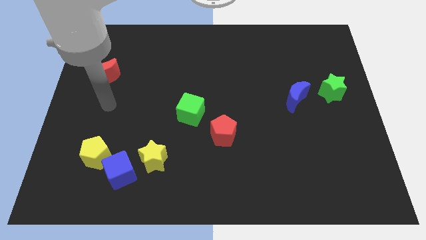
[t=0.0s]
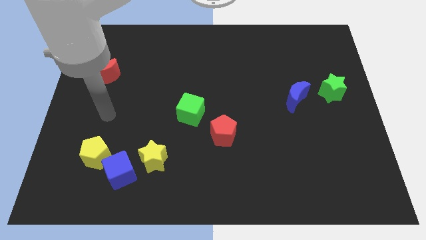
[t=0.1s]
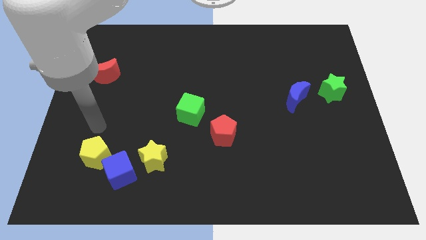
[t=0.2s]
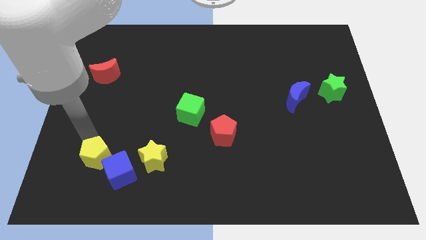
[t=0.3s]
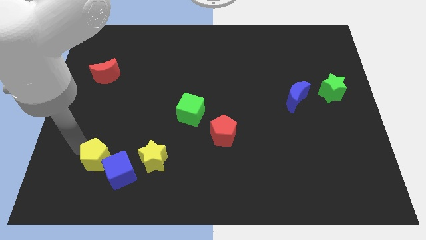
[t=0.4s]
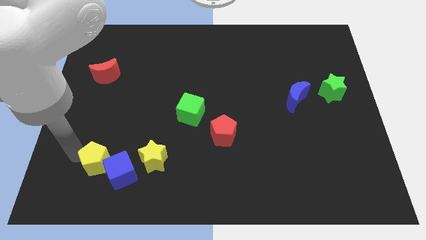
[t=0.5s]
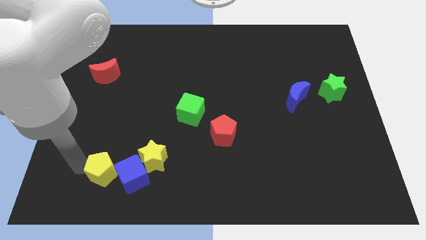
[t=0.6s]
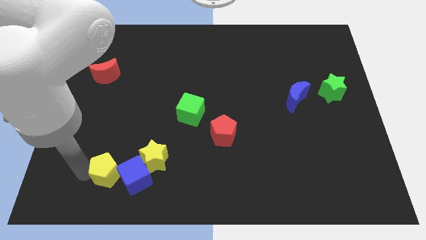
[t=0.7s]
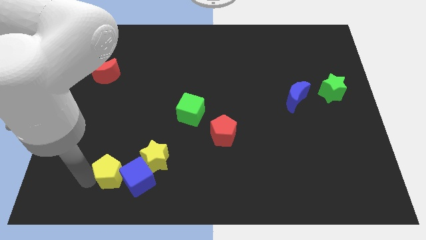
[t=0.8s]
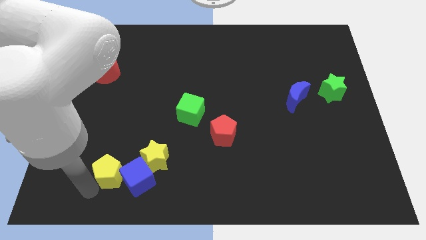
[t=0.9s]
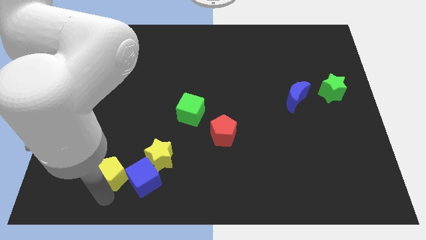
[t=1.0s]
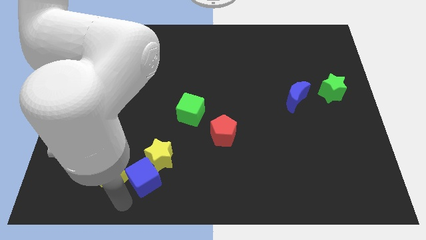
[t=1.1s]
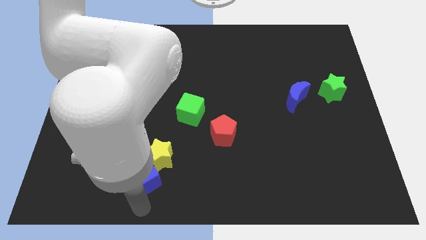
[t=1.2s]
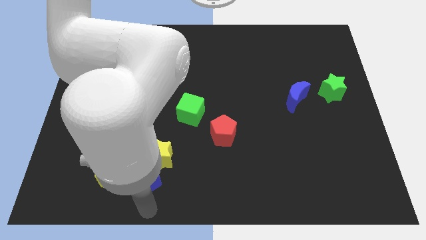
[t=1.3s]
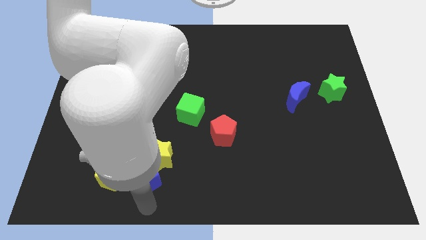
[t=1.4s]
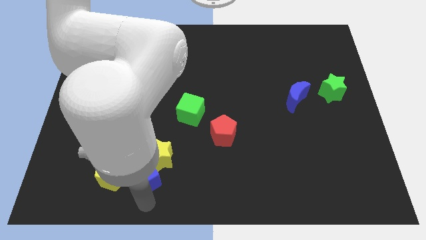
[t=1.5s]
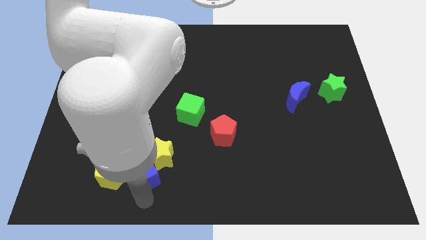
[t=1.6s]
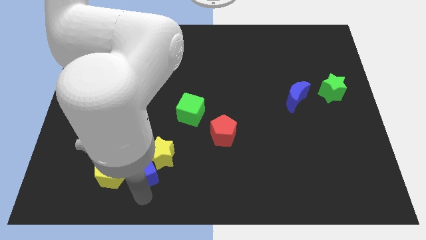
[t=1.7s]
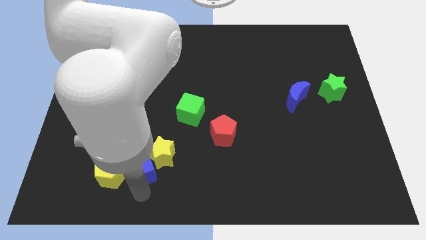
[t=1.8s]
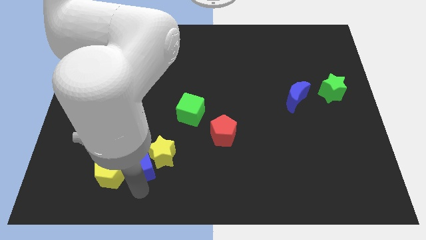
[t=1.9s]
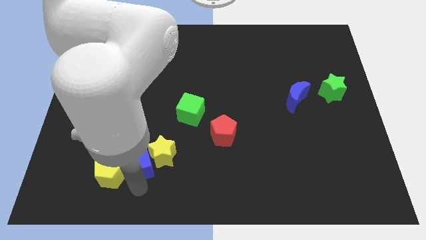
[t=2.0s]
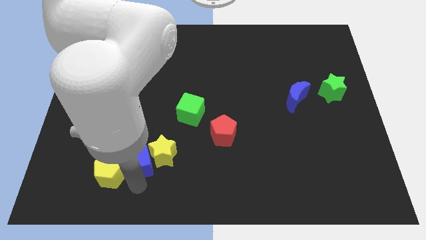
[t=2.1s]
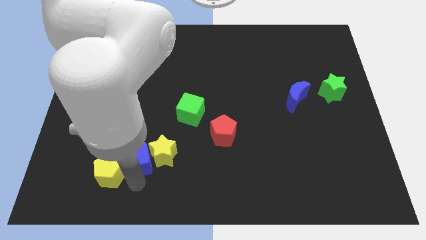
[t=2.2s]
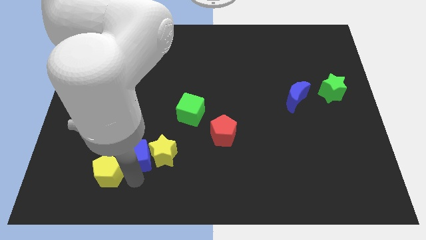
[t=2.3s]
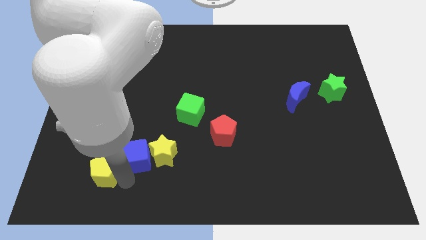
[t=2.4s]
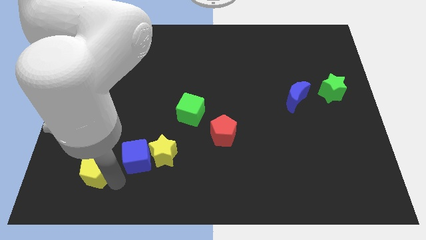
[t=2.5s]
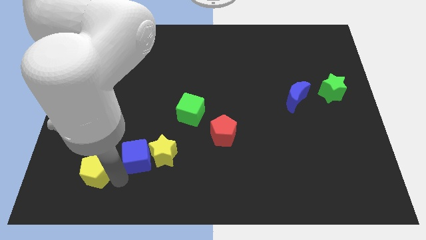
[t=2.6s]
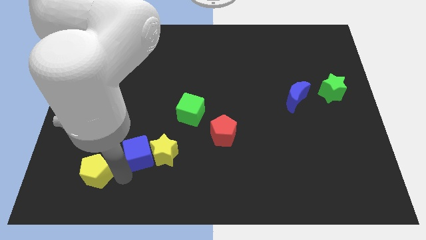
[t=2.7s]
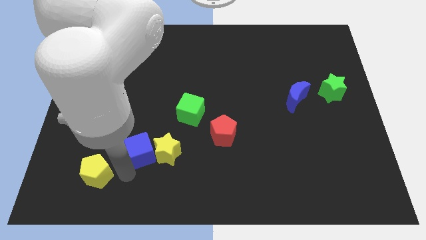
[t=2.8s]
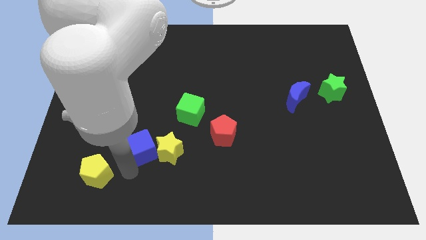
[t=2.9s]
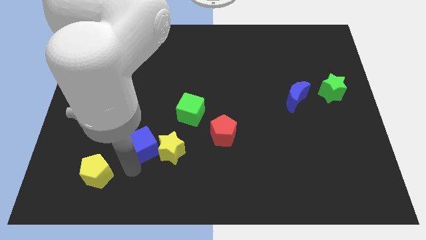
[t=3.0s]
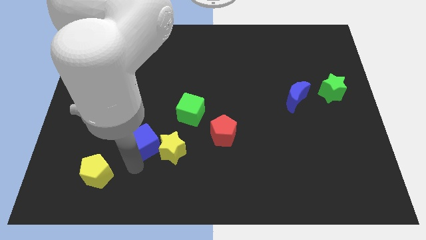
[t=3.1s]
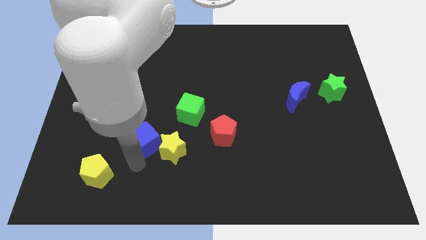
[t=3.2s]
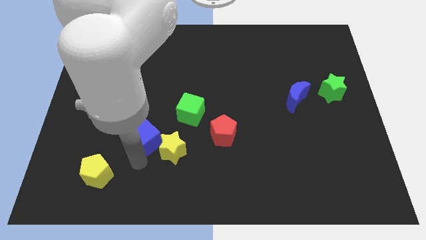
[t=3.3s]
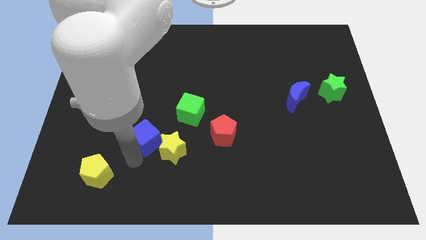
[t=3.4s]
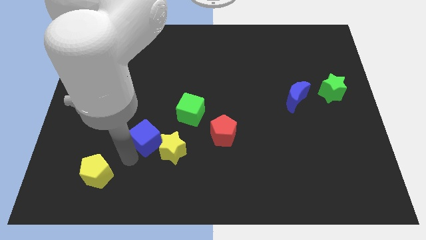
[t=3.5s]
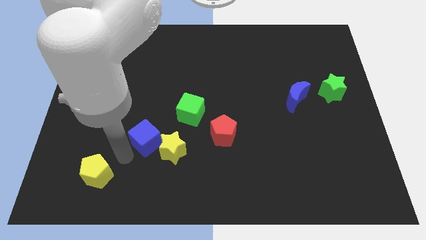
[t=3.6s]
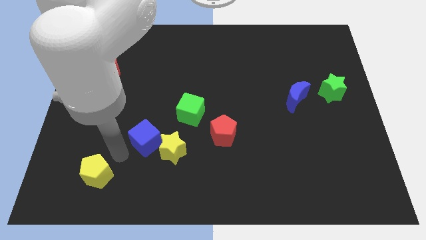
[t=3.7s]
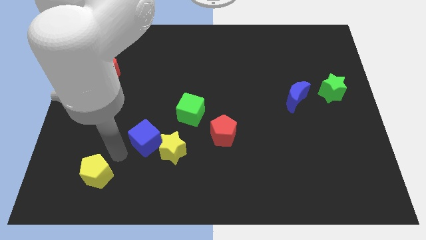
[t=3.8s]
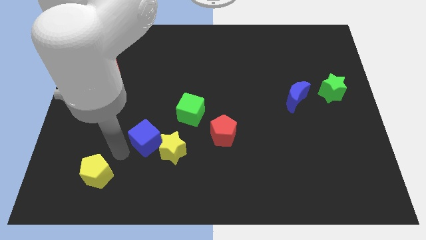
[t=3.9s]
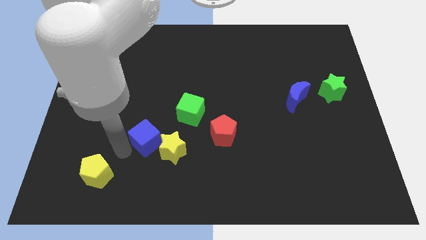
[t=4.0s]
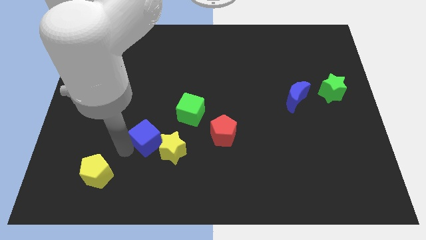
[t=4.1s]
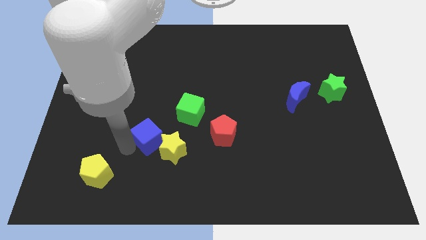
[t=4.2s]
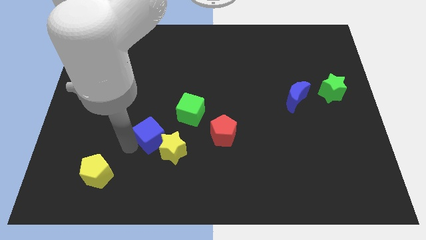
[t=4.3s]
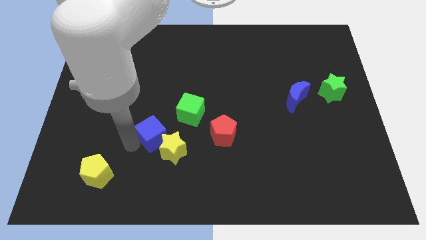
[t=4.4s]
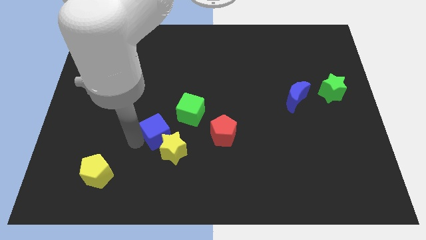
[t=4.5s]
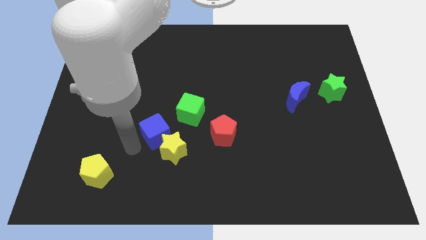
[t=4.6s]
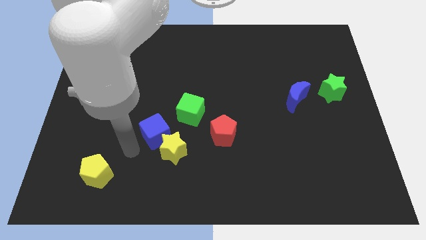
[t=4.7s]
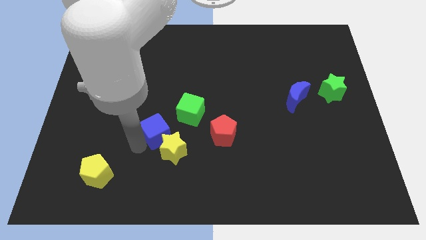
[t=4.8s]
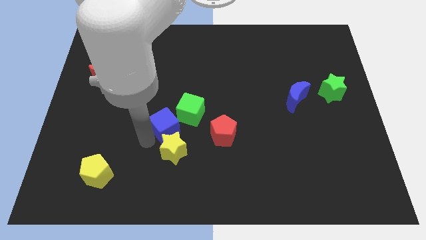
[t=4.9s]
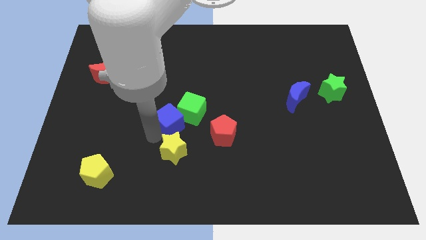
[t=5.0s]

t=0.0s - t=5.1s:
move the blue cube close to the green cube

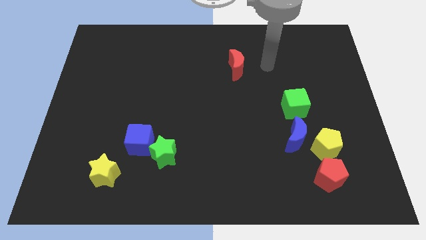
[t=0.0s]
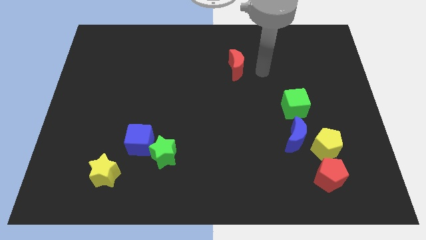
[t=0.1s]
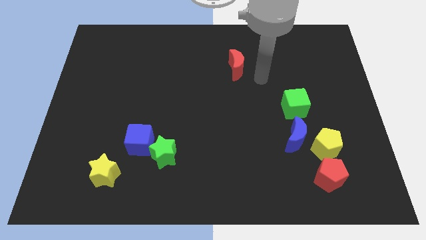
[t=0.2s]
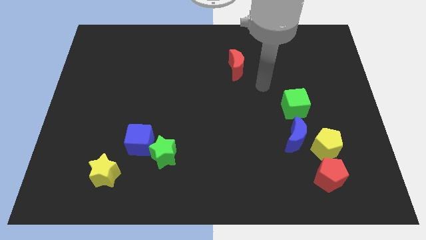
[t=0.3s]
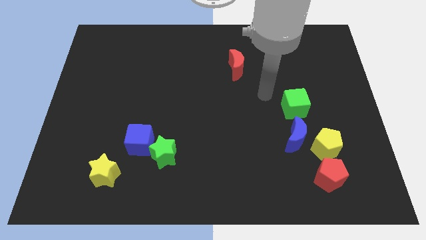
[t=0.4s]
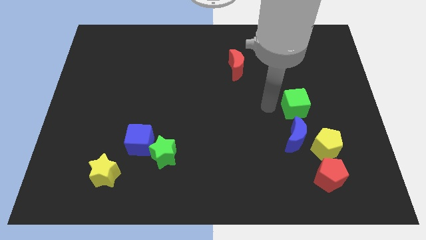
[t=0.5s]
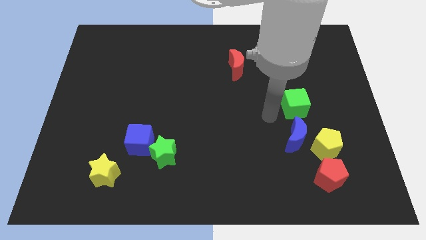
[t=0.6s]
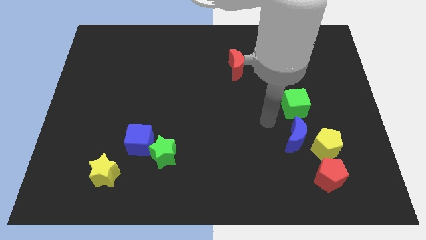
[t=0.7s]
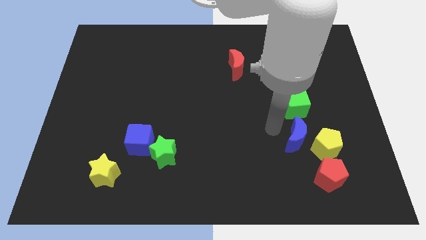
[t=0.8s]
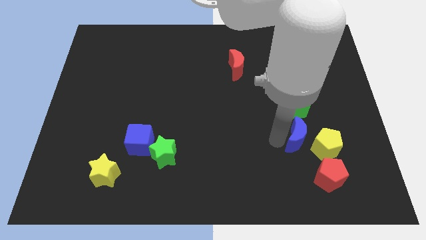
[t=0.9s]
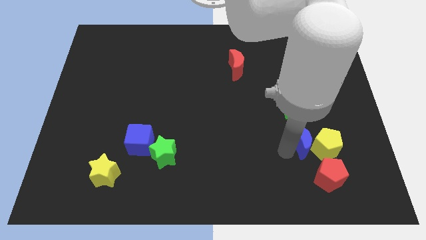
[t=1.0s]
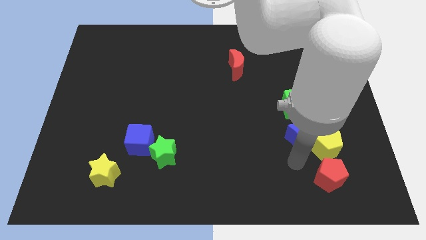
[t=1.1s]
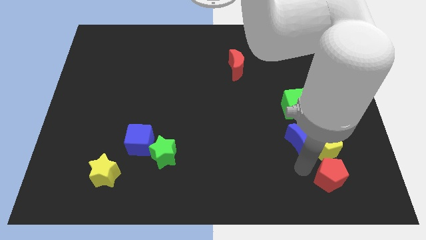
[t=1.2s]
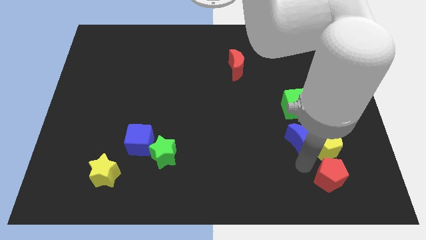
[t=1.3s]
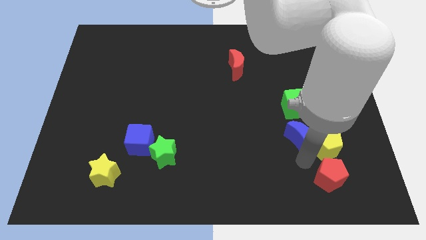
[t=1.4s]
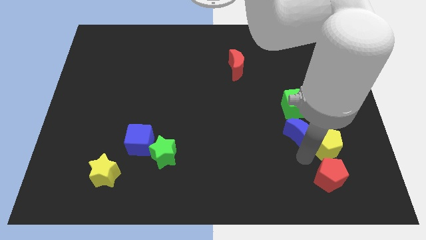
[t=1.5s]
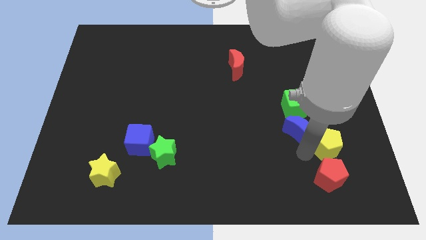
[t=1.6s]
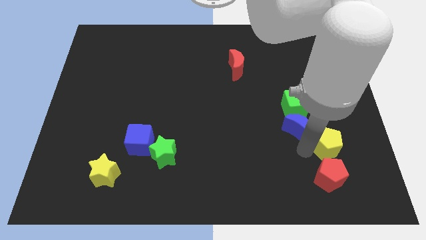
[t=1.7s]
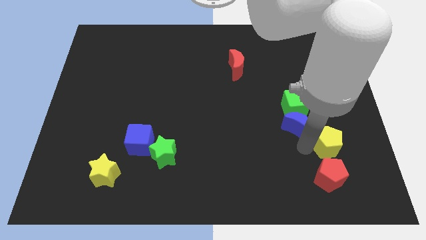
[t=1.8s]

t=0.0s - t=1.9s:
put the blue moon to the green cube
